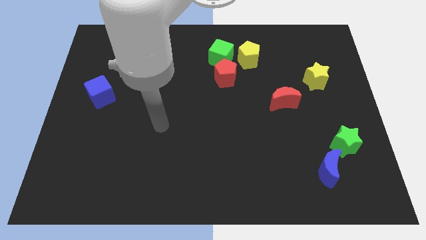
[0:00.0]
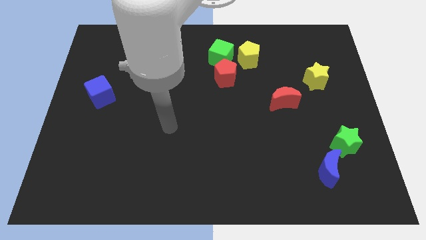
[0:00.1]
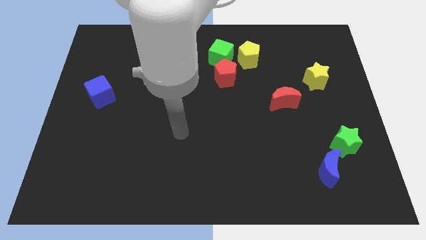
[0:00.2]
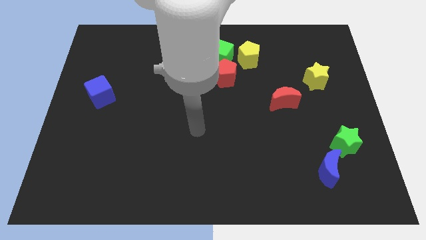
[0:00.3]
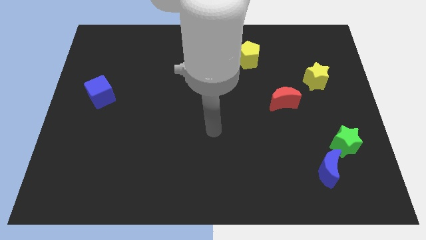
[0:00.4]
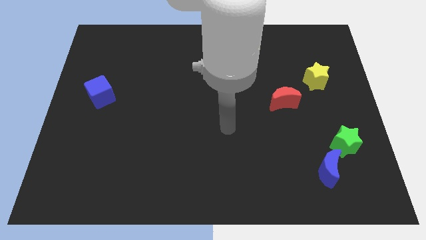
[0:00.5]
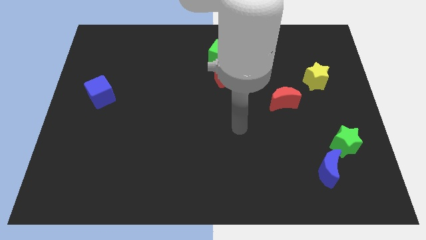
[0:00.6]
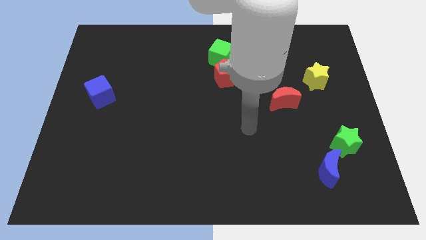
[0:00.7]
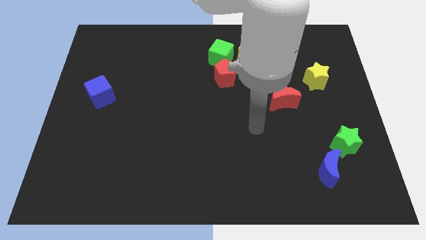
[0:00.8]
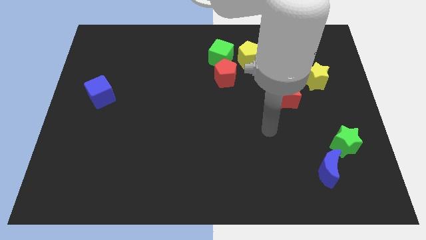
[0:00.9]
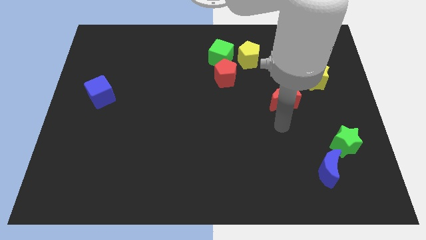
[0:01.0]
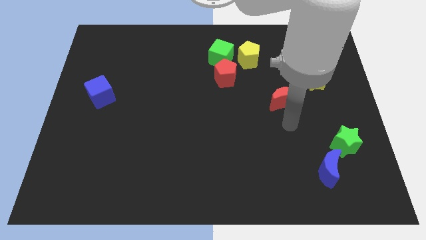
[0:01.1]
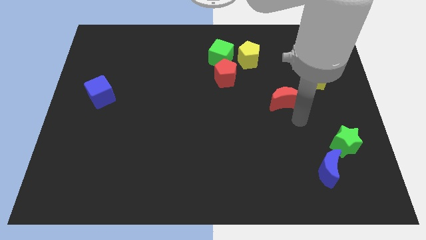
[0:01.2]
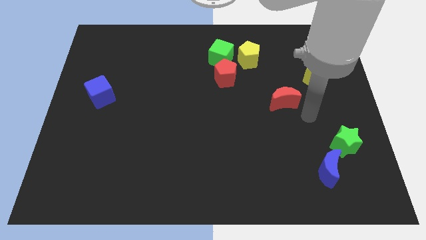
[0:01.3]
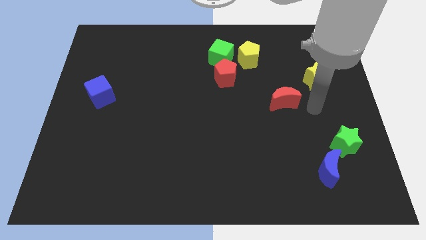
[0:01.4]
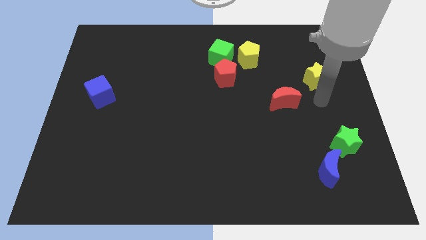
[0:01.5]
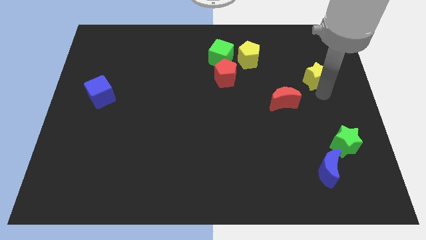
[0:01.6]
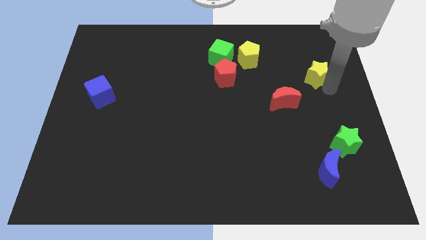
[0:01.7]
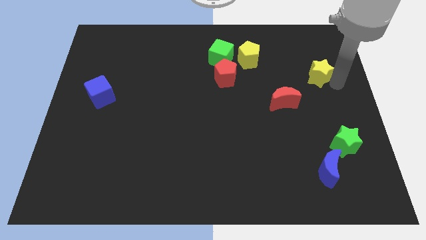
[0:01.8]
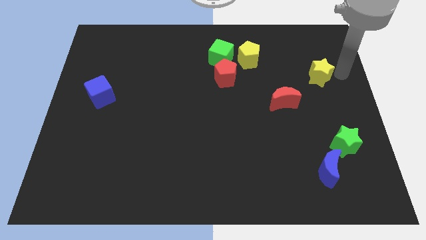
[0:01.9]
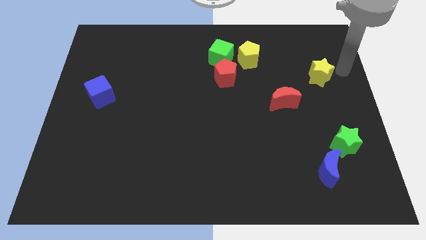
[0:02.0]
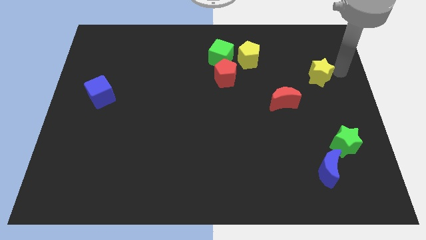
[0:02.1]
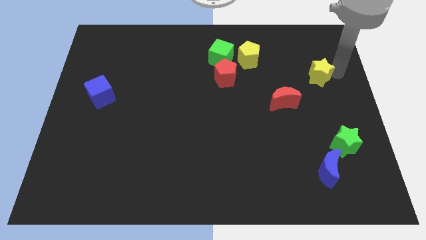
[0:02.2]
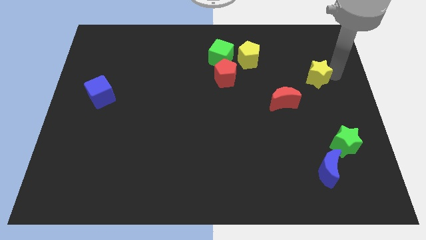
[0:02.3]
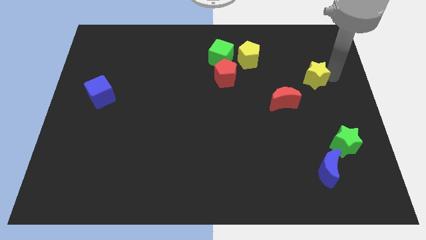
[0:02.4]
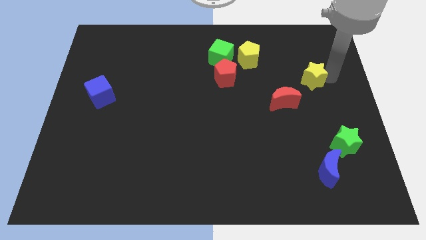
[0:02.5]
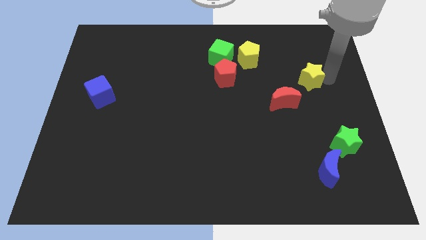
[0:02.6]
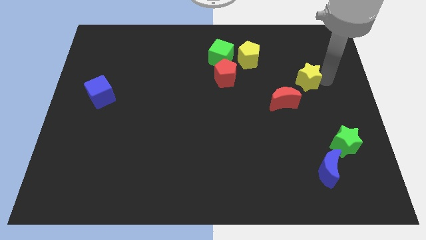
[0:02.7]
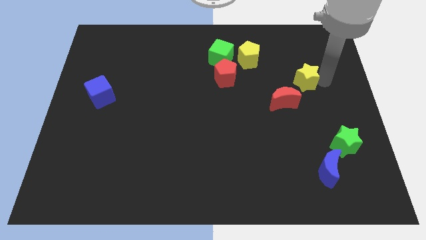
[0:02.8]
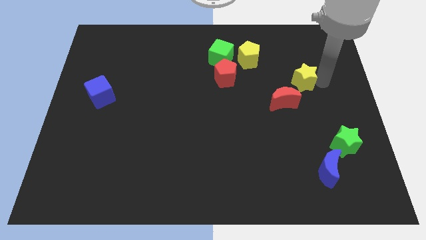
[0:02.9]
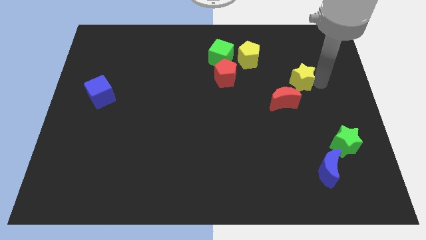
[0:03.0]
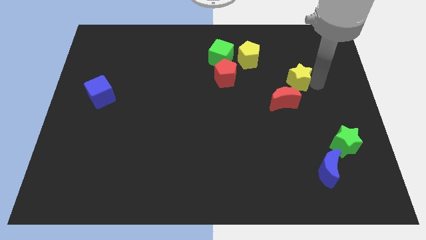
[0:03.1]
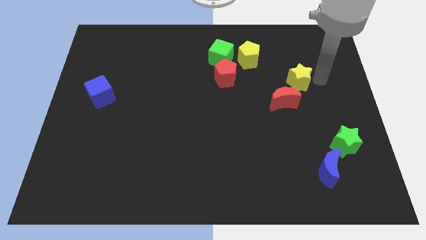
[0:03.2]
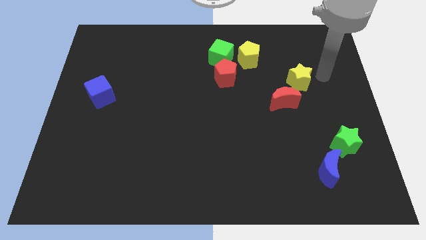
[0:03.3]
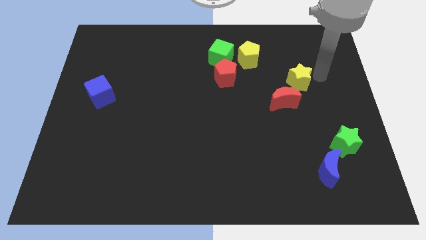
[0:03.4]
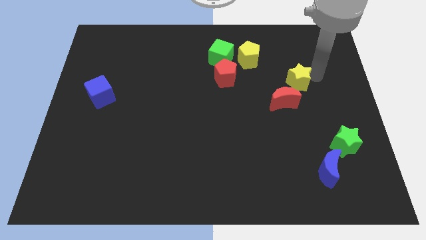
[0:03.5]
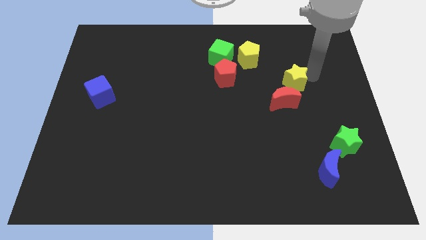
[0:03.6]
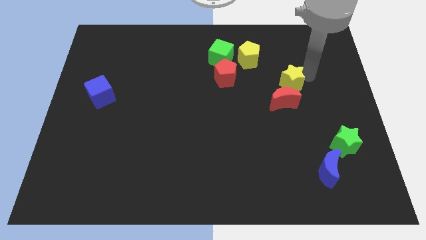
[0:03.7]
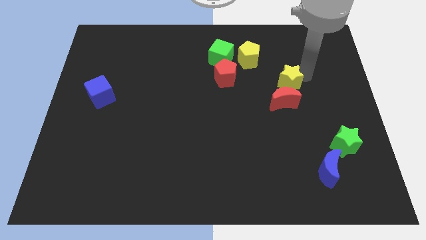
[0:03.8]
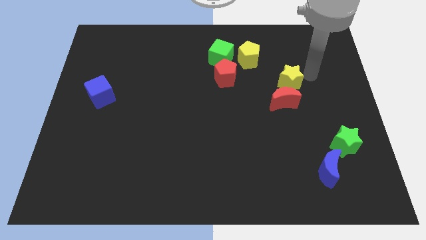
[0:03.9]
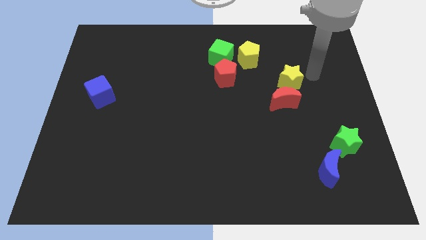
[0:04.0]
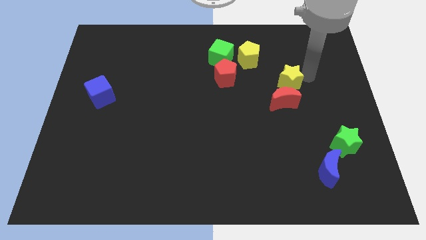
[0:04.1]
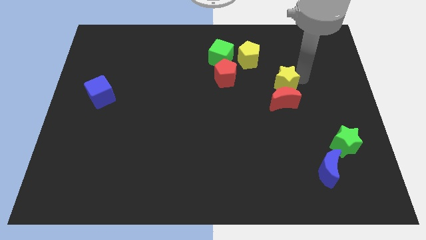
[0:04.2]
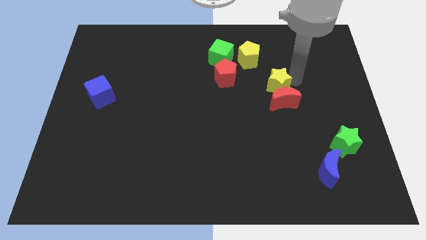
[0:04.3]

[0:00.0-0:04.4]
slide the yellow star a bit downwards and to the left diagonally

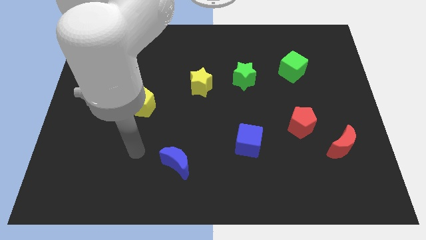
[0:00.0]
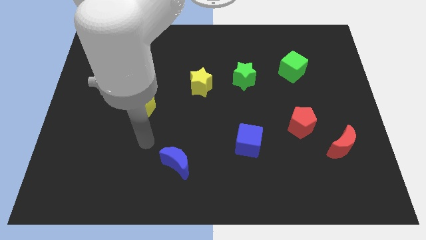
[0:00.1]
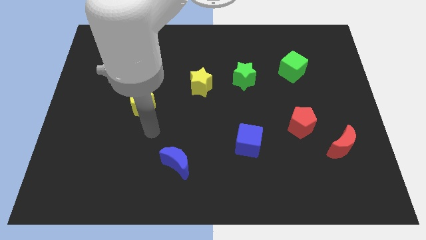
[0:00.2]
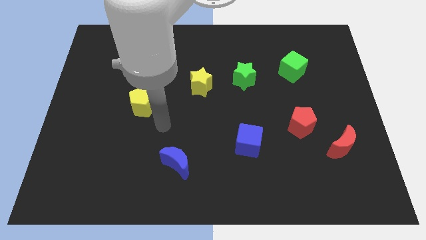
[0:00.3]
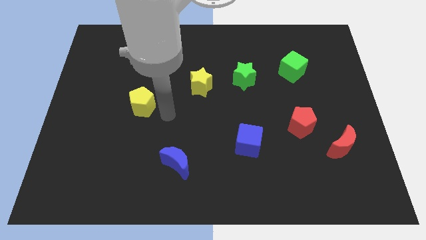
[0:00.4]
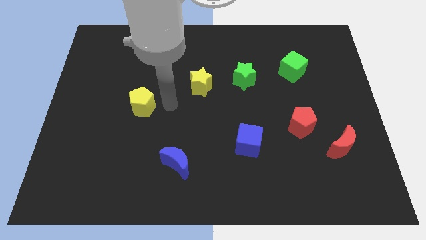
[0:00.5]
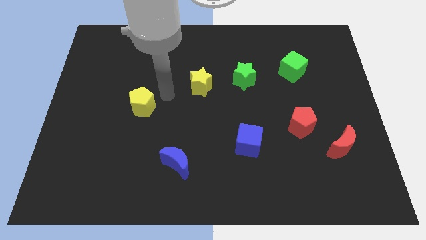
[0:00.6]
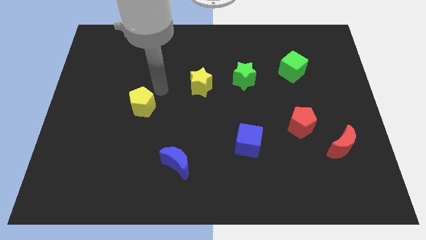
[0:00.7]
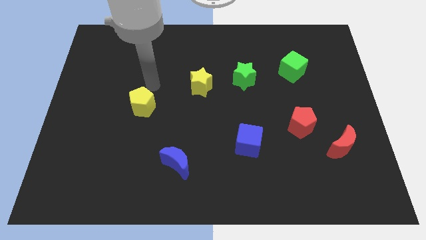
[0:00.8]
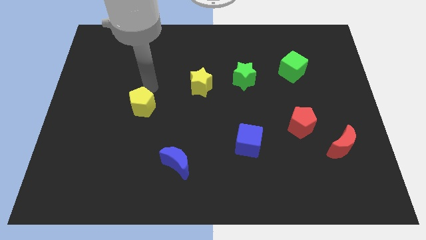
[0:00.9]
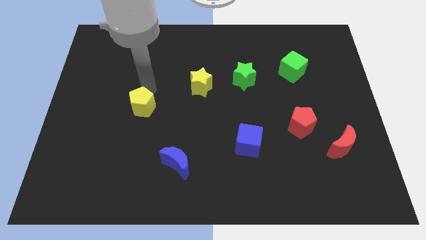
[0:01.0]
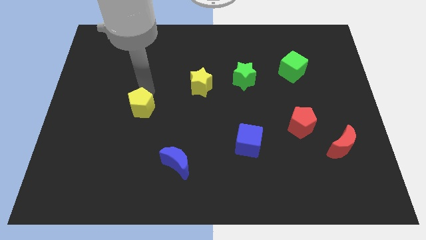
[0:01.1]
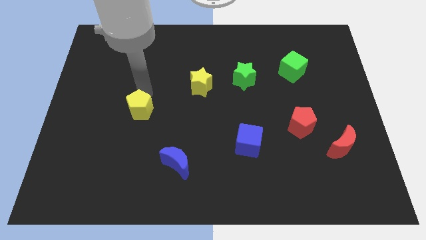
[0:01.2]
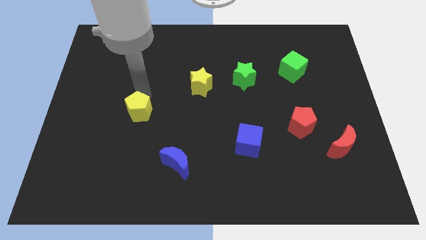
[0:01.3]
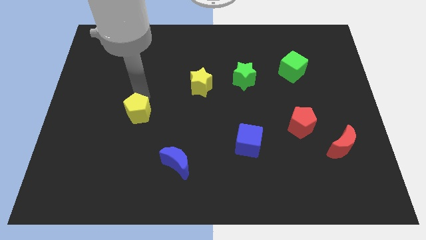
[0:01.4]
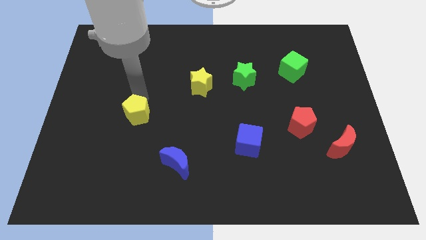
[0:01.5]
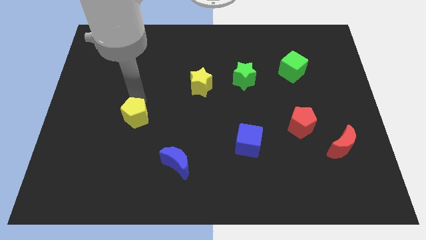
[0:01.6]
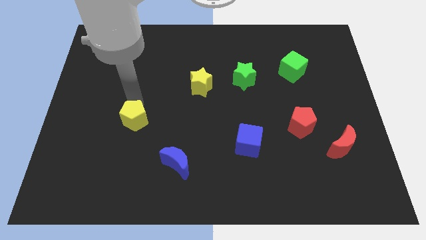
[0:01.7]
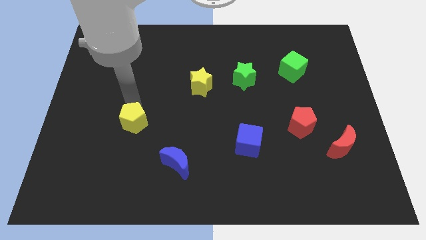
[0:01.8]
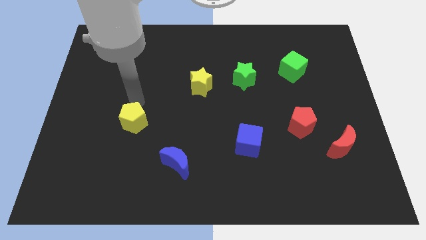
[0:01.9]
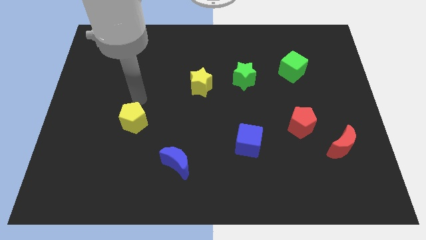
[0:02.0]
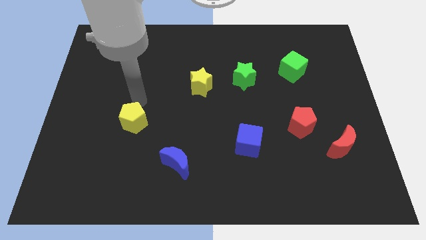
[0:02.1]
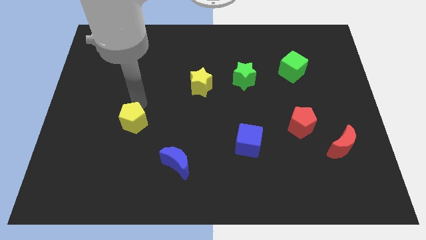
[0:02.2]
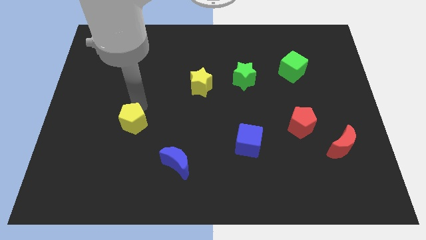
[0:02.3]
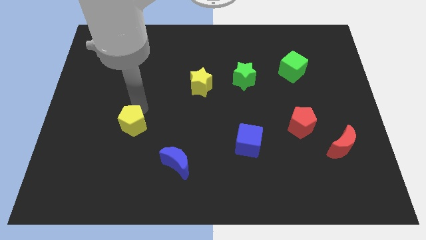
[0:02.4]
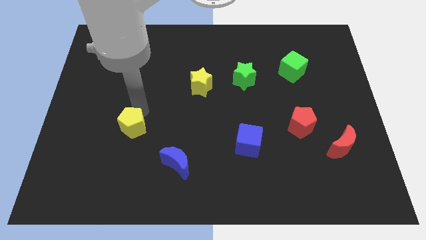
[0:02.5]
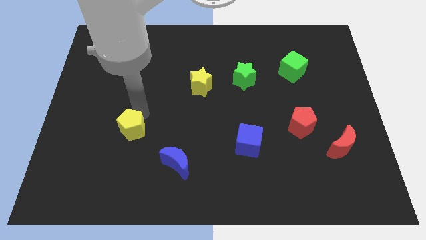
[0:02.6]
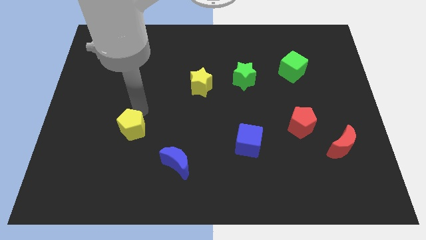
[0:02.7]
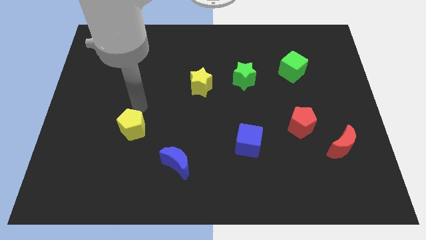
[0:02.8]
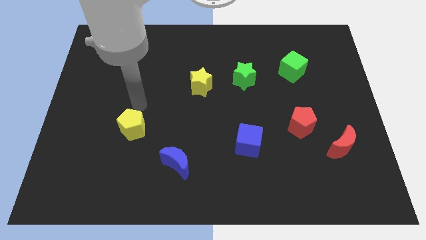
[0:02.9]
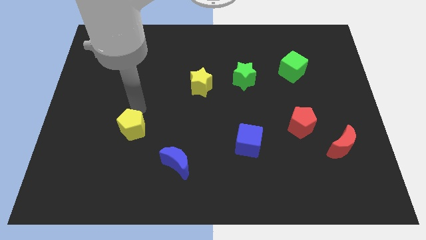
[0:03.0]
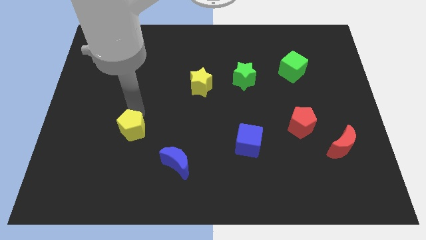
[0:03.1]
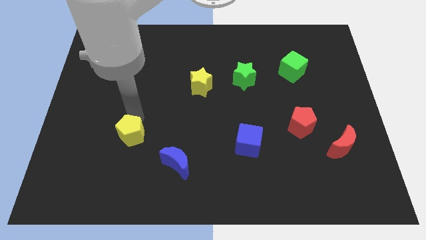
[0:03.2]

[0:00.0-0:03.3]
move the yellow pentagon a little downwards
